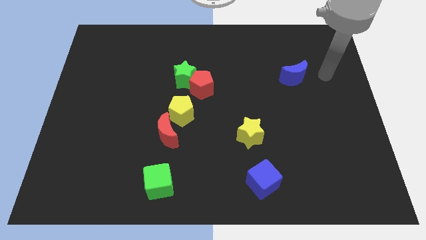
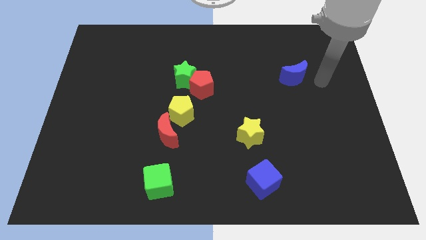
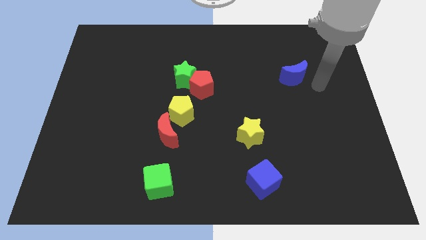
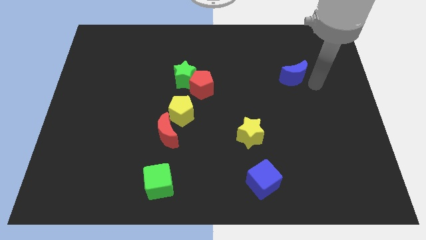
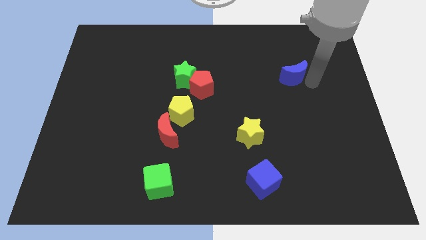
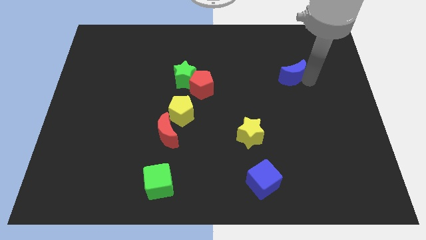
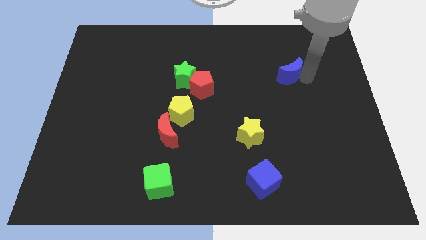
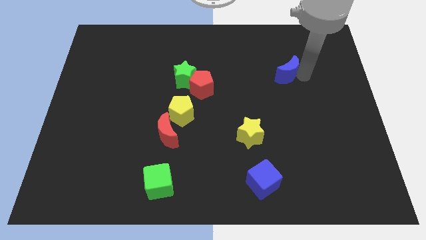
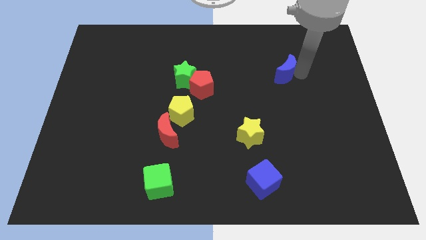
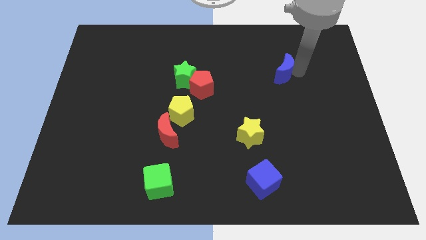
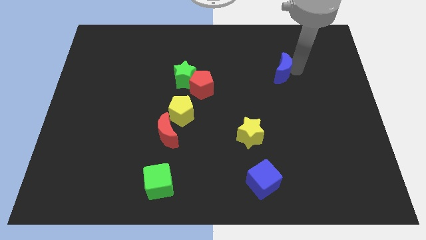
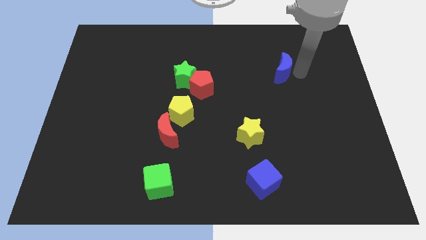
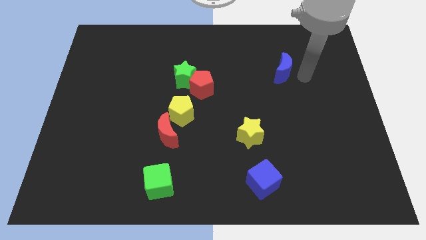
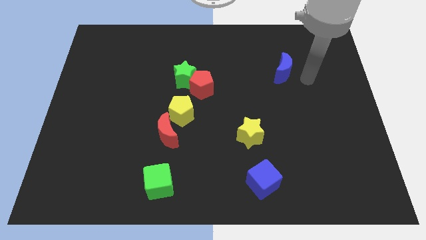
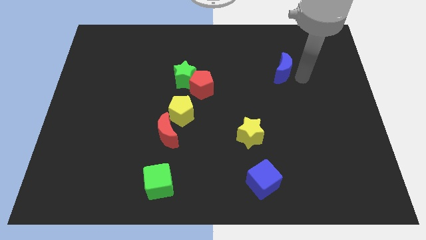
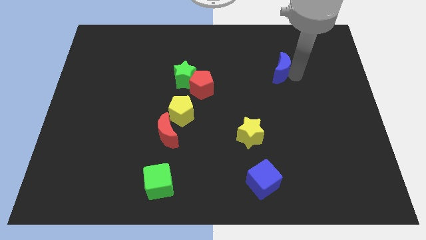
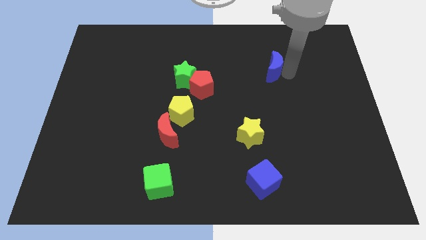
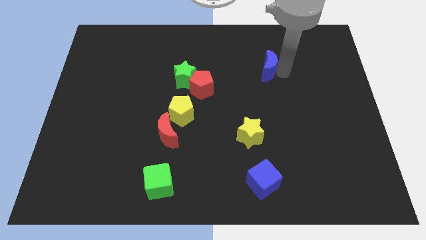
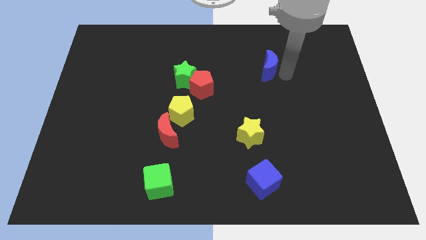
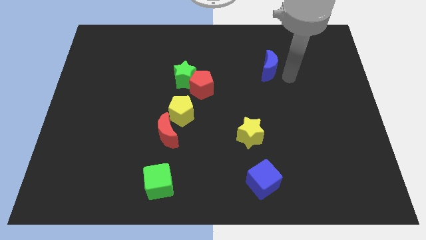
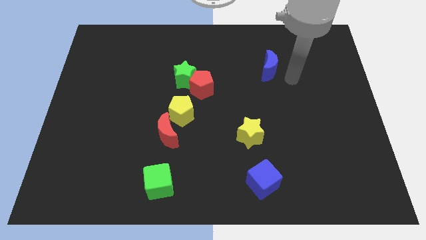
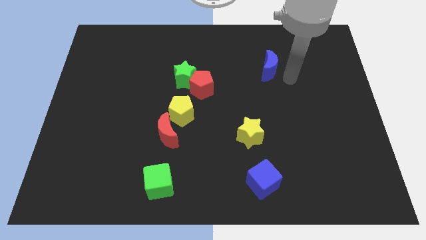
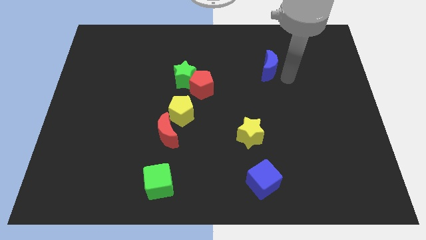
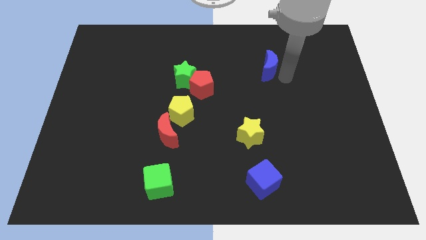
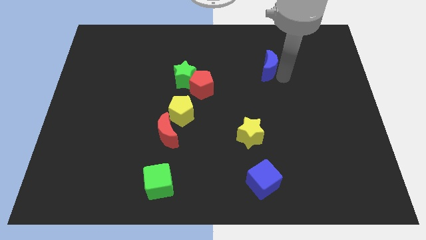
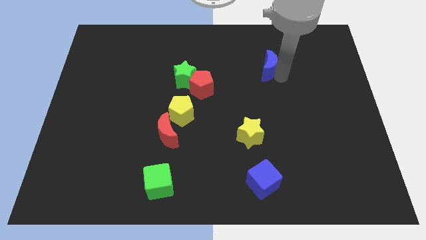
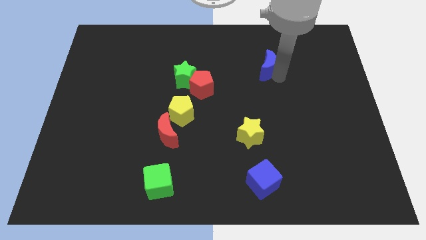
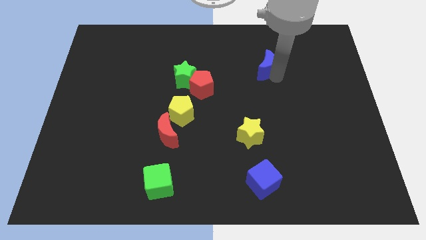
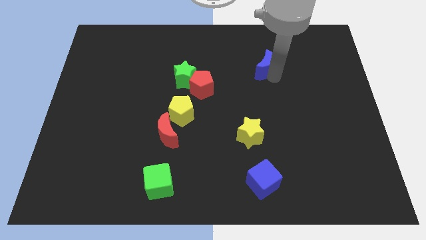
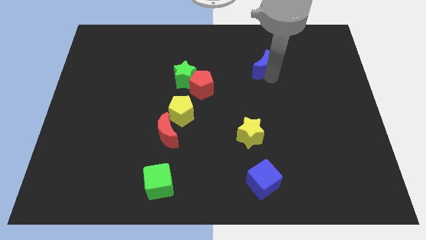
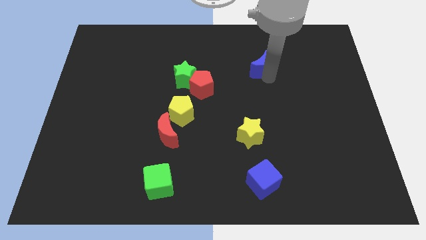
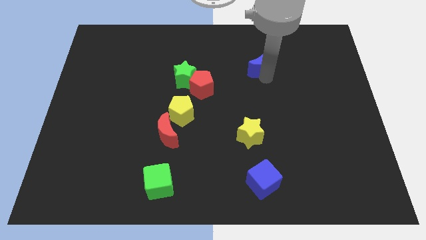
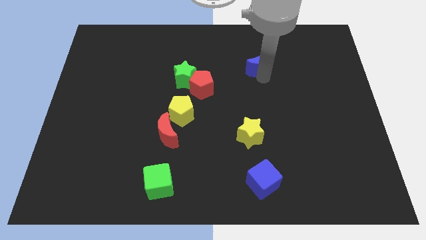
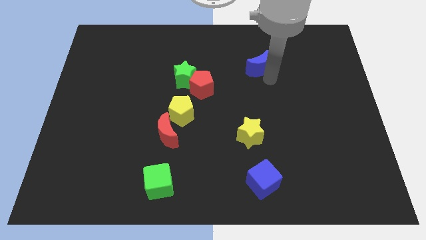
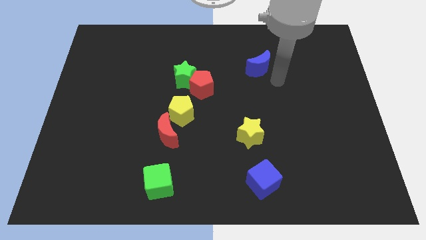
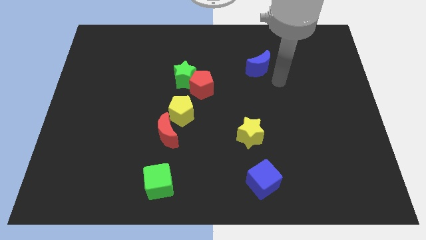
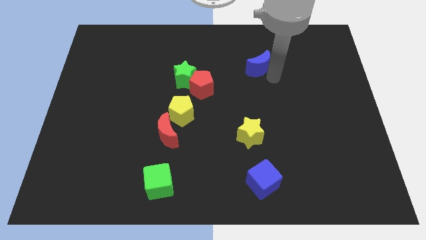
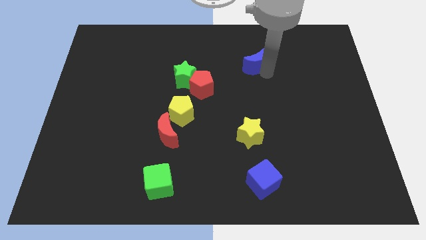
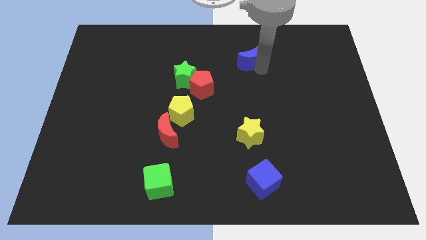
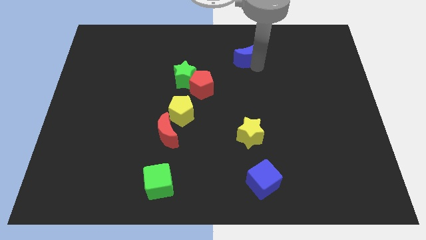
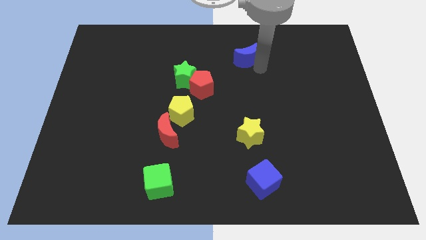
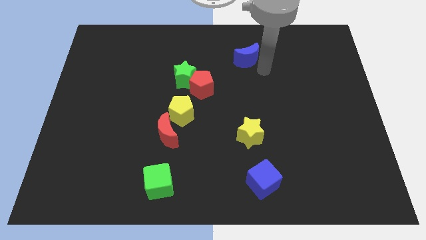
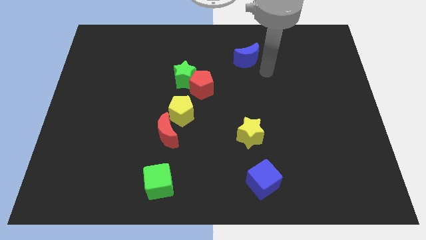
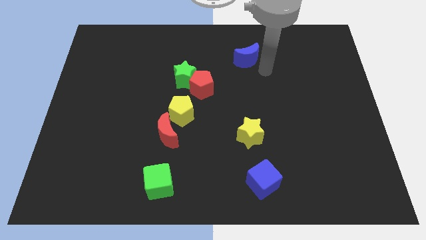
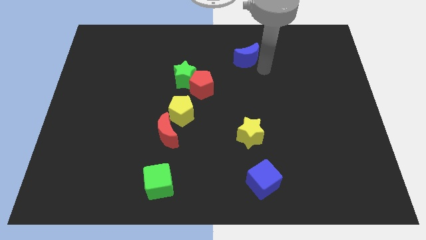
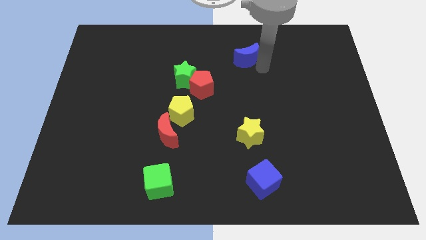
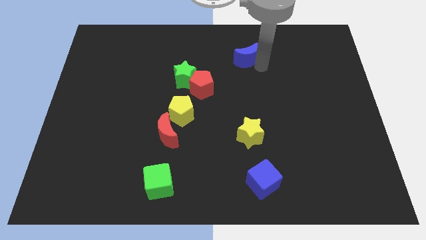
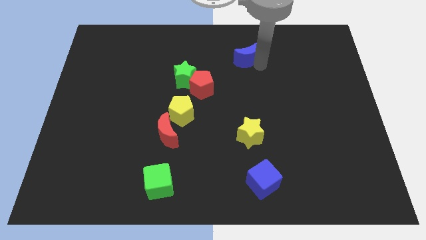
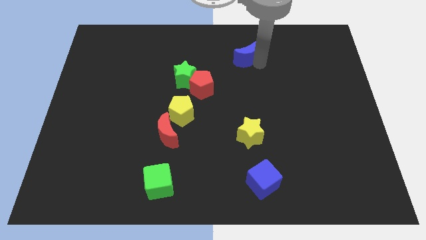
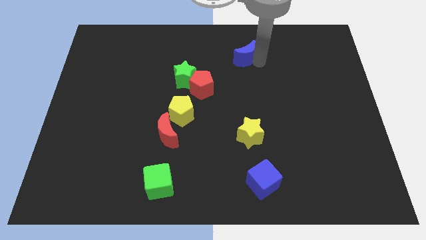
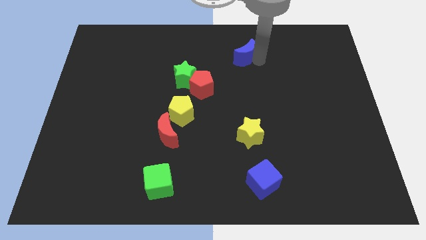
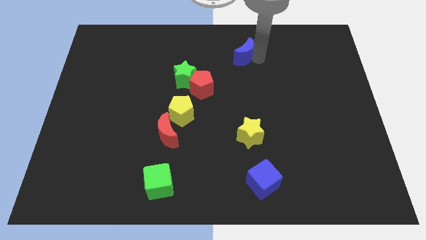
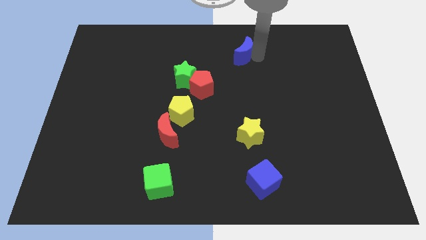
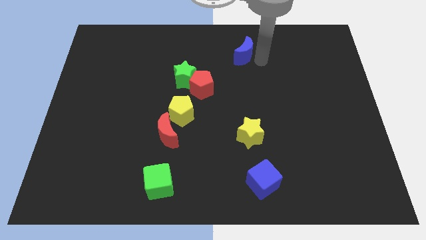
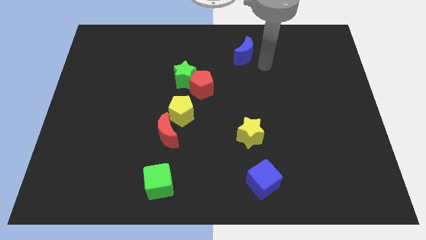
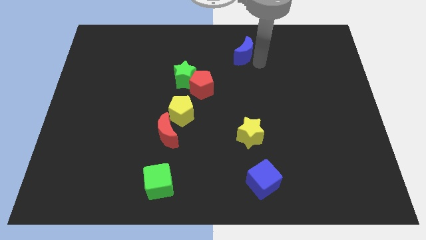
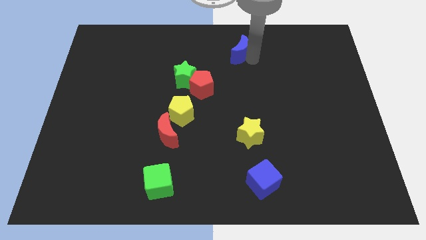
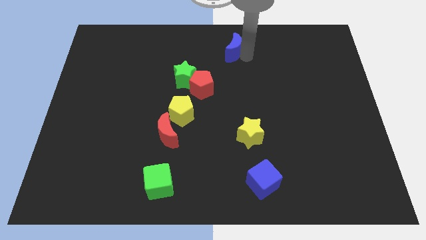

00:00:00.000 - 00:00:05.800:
put the blue moon to the top

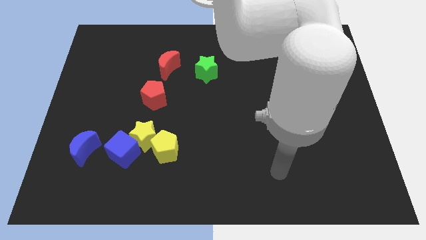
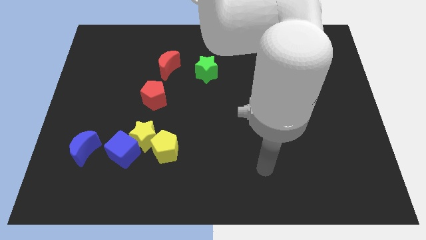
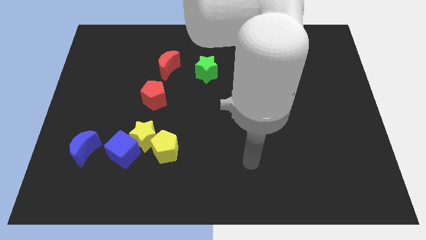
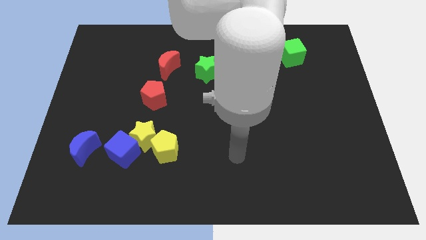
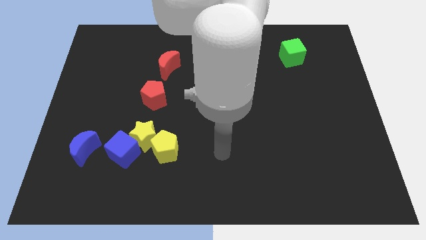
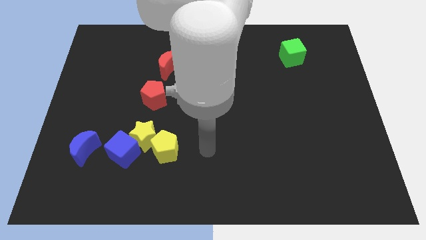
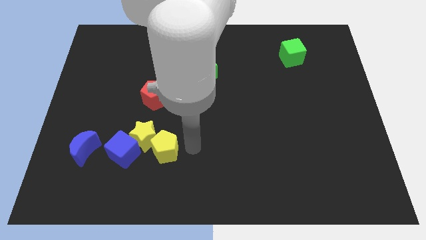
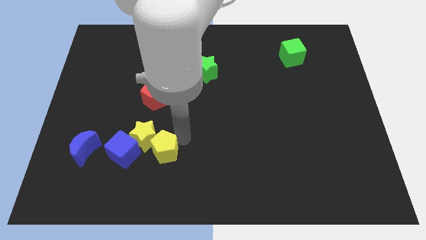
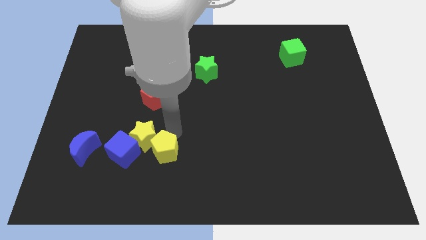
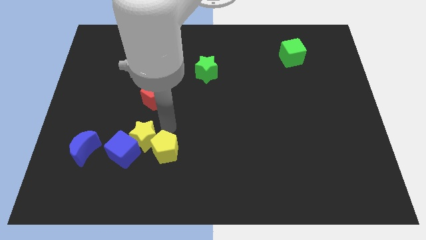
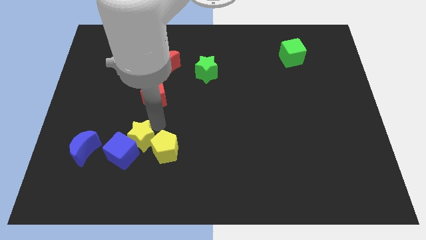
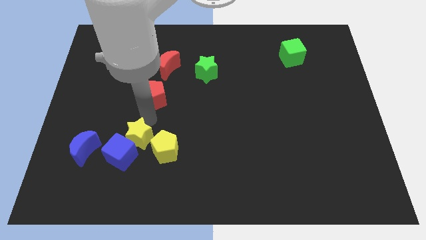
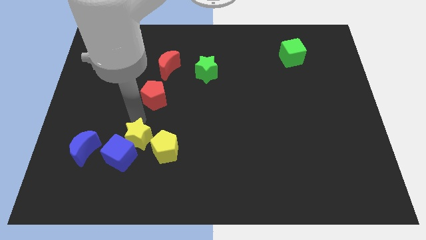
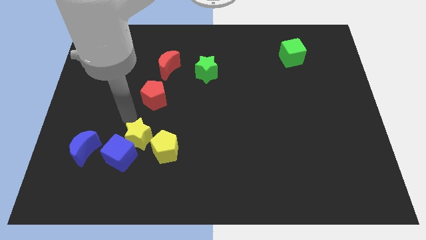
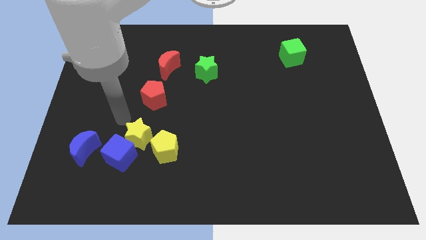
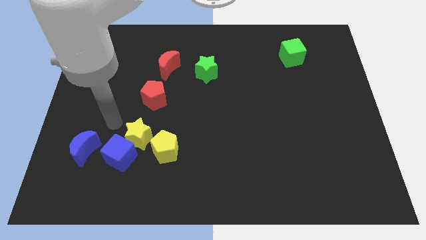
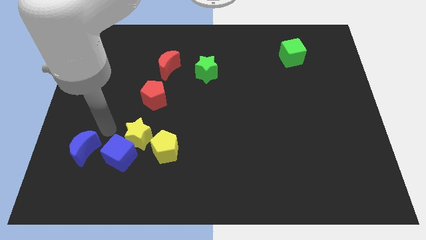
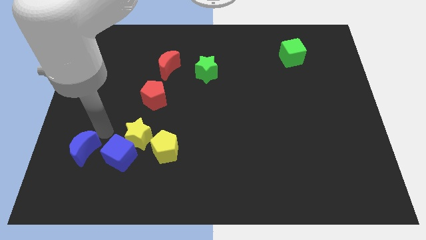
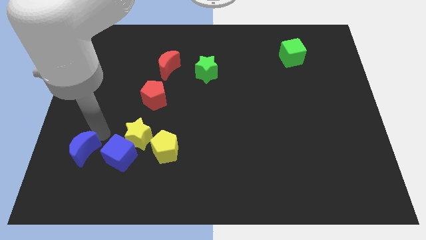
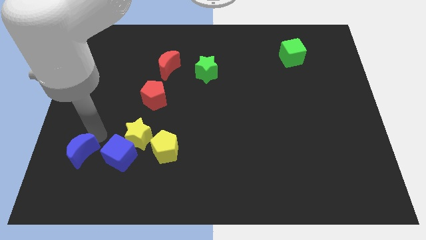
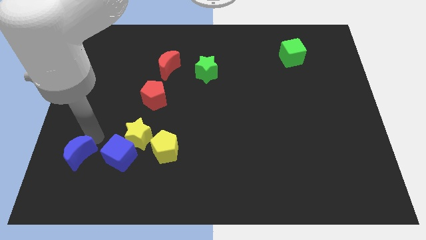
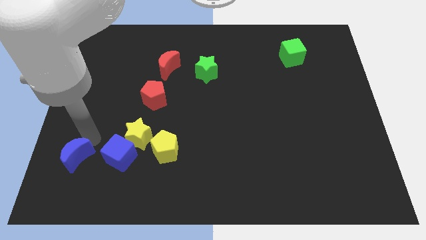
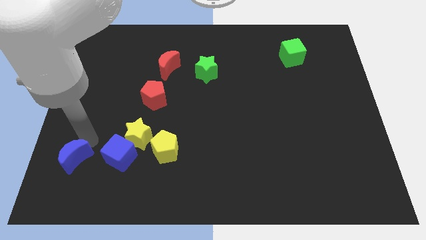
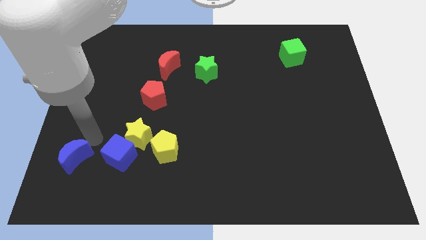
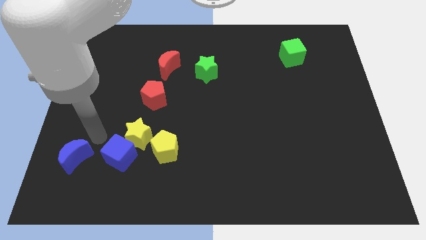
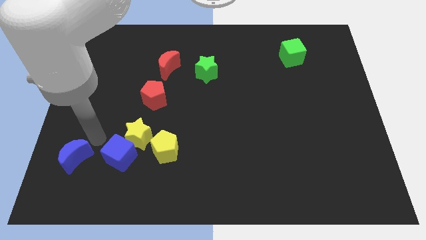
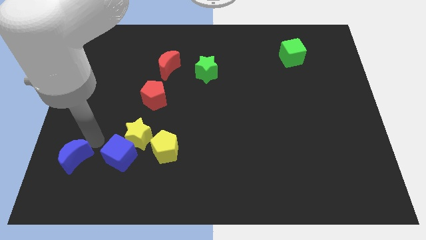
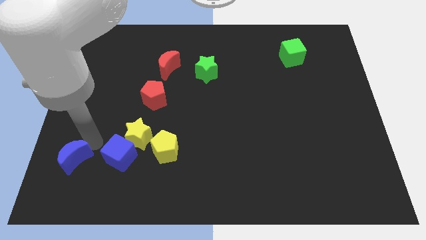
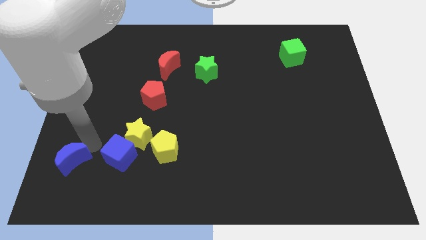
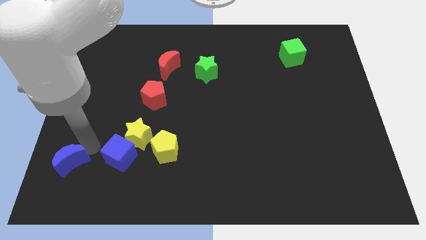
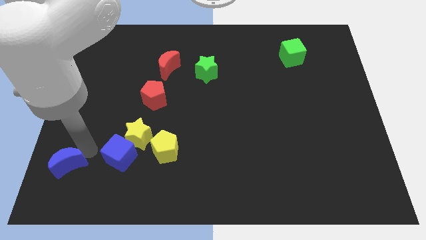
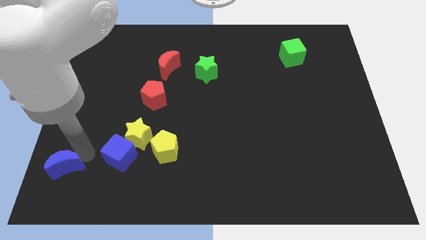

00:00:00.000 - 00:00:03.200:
move the blue moon to the bottom left corner
